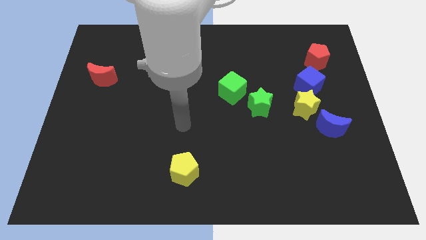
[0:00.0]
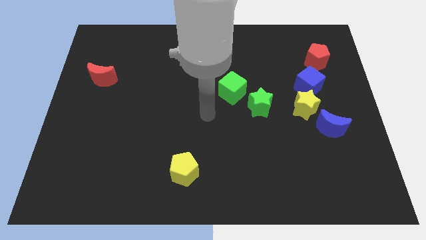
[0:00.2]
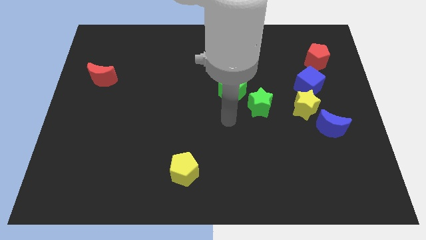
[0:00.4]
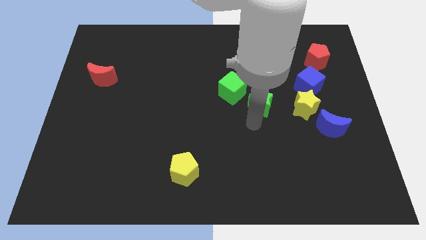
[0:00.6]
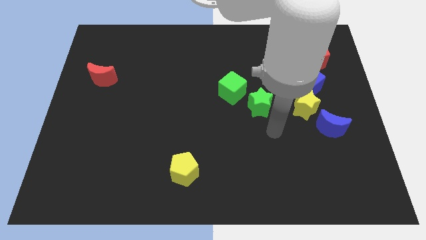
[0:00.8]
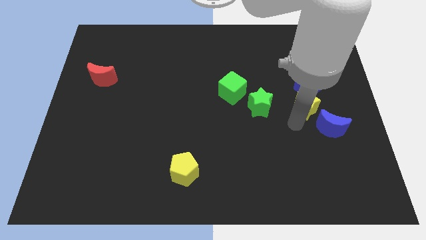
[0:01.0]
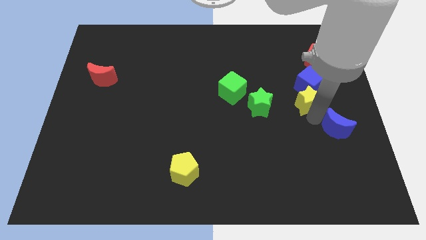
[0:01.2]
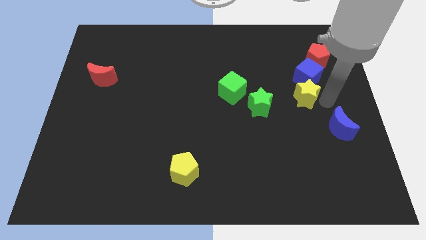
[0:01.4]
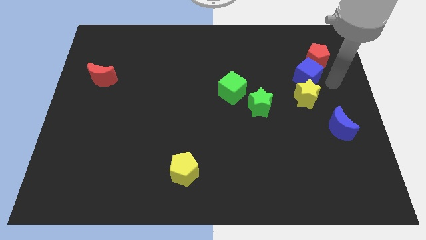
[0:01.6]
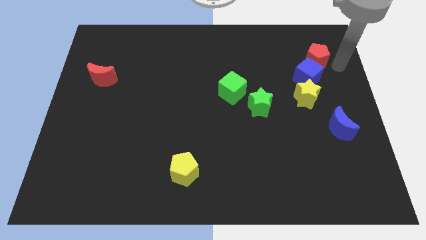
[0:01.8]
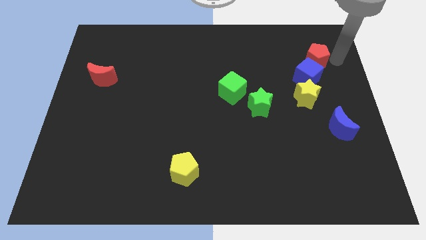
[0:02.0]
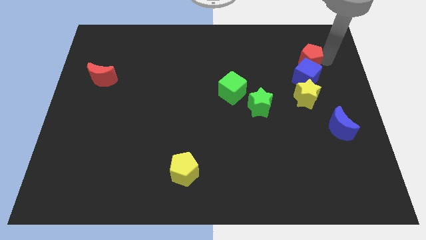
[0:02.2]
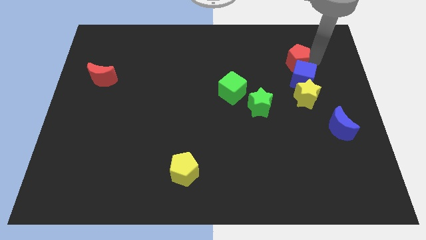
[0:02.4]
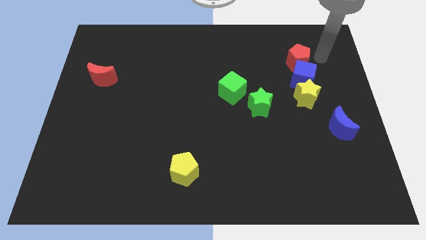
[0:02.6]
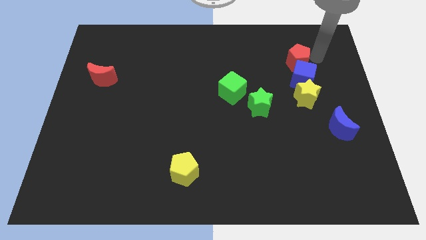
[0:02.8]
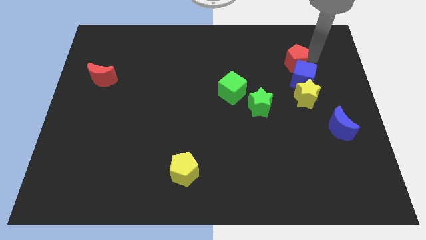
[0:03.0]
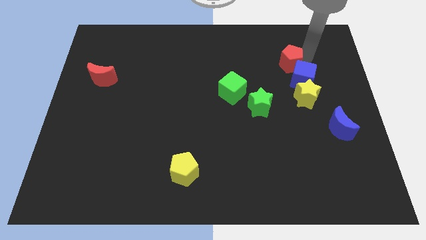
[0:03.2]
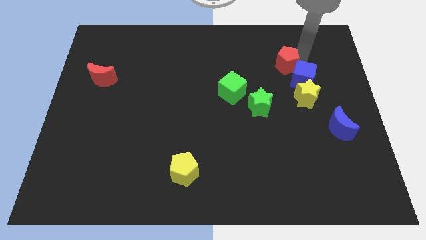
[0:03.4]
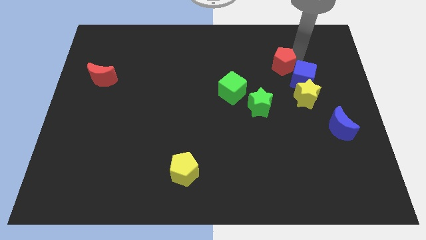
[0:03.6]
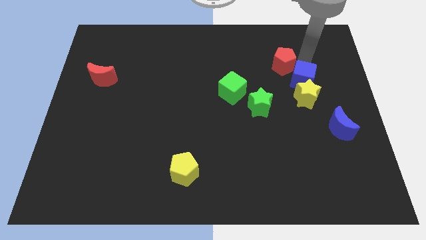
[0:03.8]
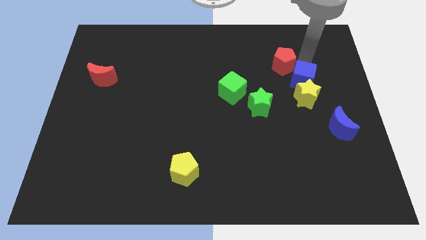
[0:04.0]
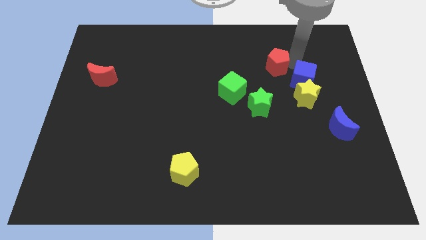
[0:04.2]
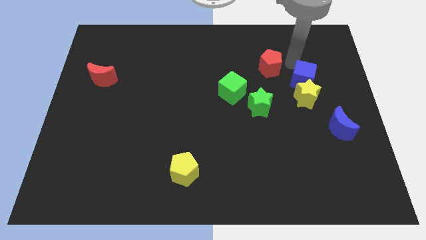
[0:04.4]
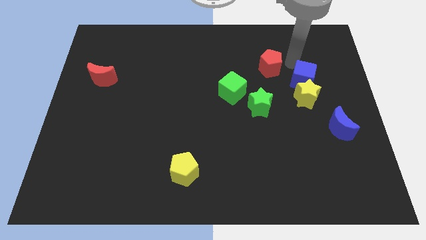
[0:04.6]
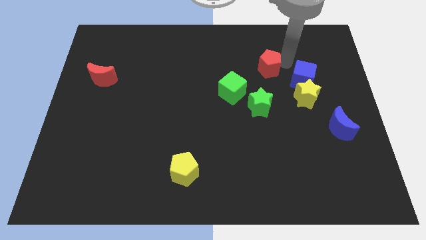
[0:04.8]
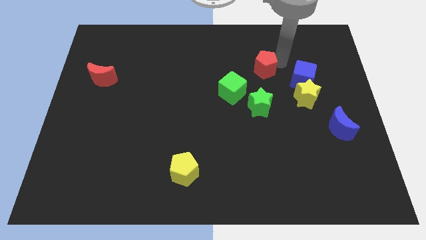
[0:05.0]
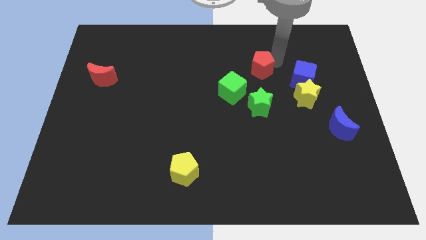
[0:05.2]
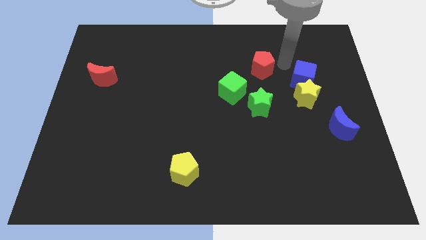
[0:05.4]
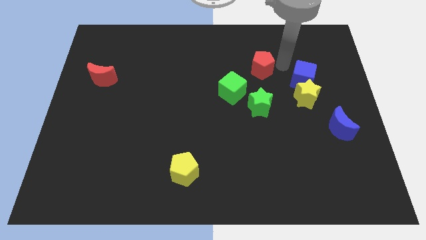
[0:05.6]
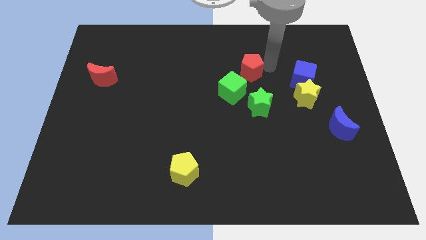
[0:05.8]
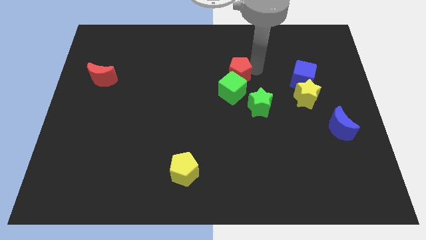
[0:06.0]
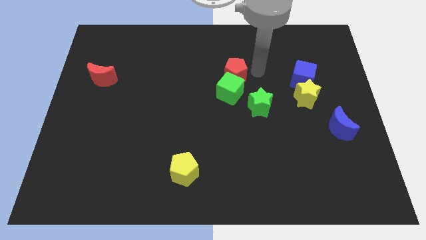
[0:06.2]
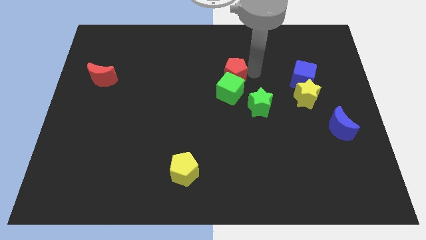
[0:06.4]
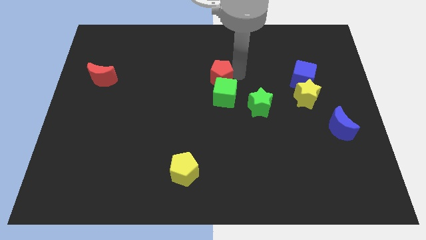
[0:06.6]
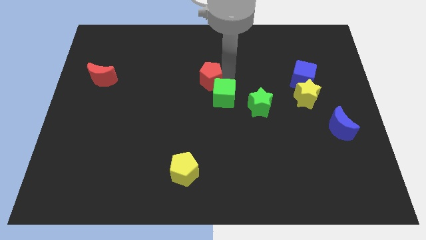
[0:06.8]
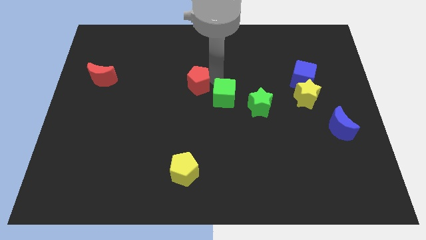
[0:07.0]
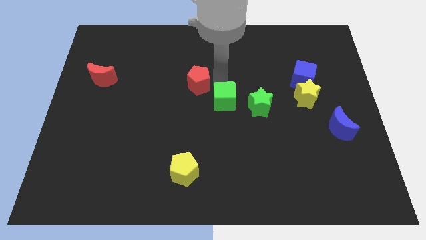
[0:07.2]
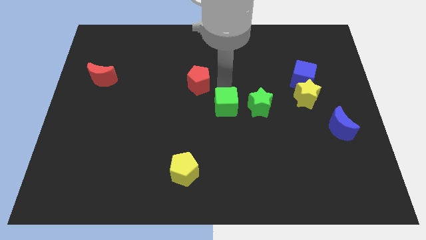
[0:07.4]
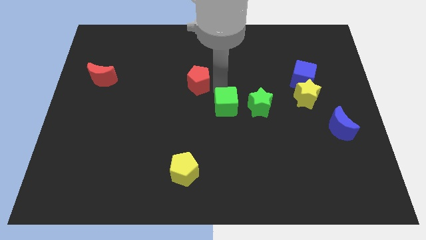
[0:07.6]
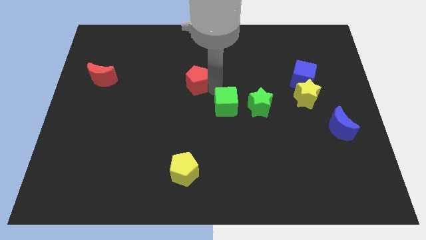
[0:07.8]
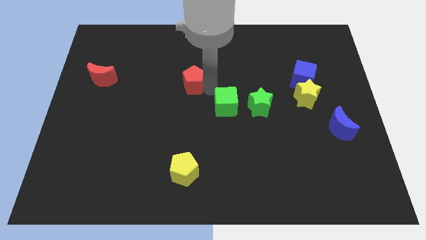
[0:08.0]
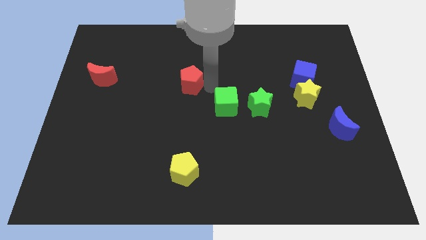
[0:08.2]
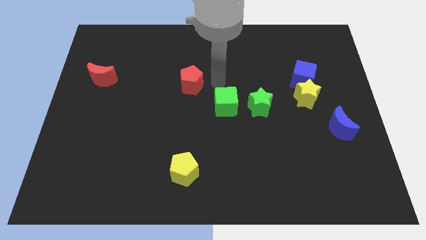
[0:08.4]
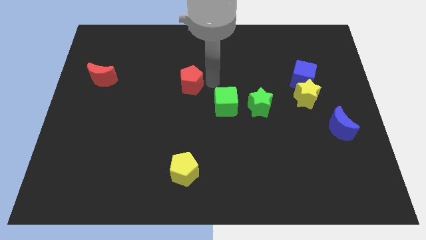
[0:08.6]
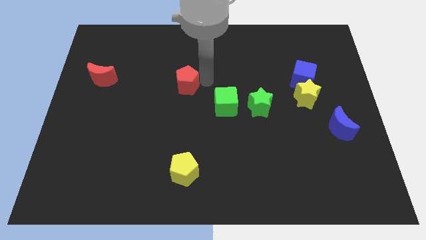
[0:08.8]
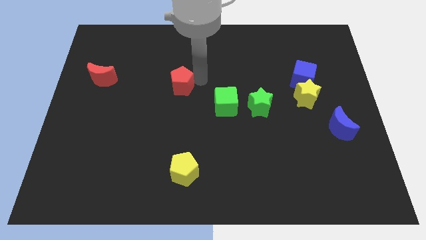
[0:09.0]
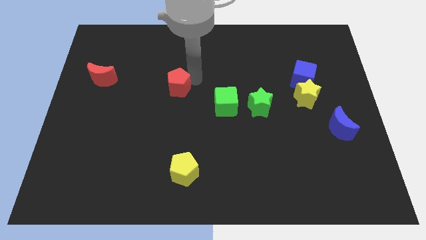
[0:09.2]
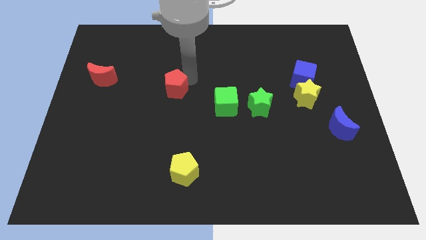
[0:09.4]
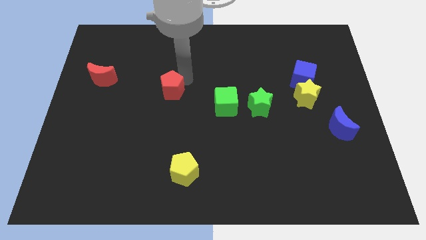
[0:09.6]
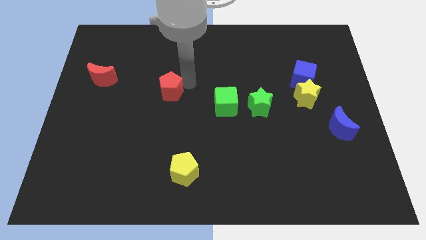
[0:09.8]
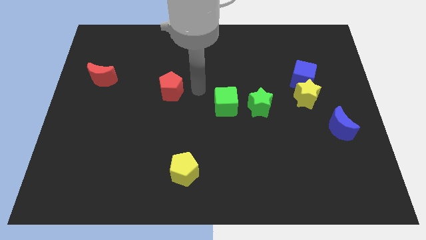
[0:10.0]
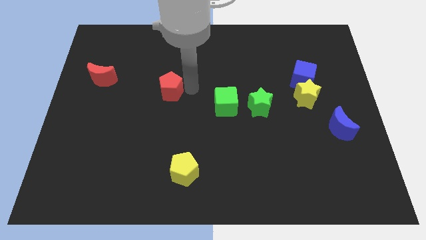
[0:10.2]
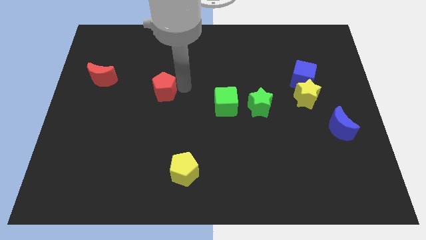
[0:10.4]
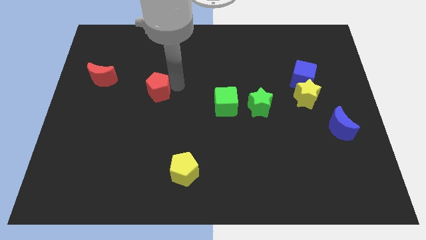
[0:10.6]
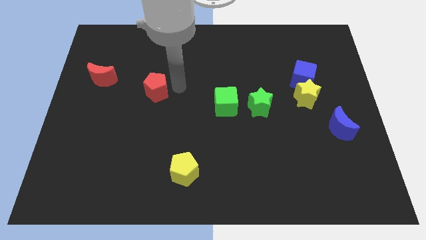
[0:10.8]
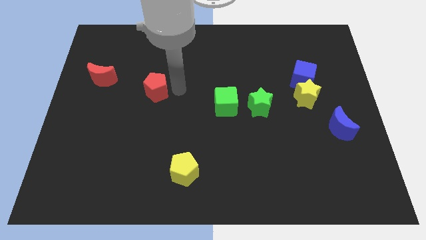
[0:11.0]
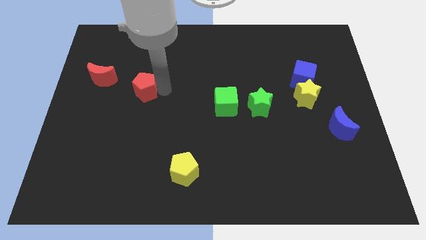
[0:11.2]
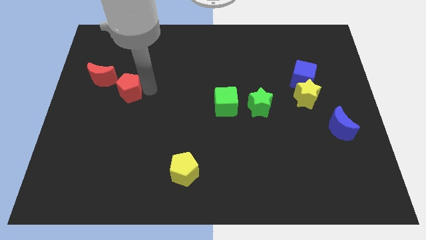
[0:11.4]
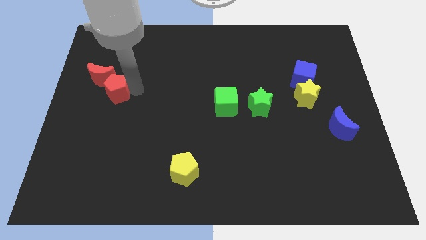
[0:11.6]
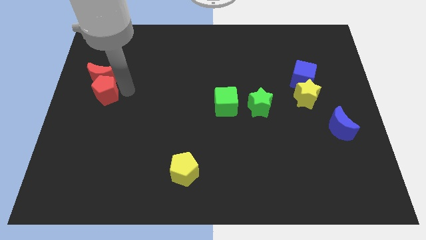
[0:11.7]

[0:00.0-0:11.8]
slide the red pentagon to the center left

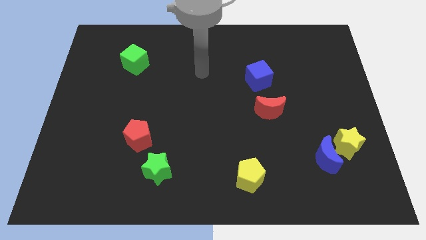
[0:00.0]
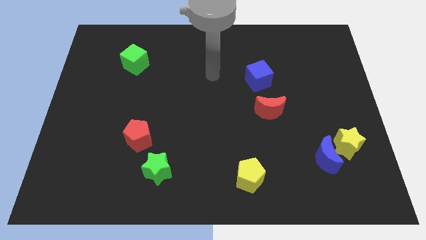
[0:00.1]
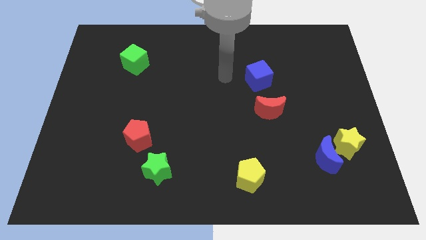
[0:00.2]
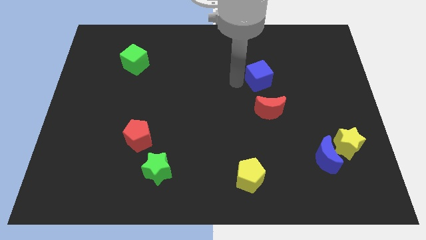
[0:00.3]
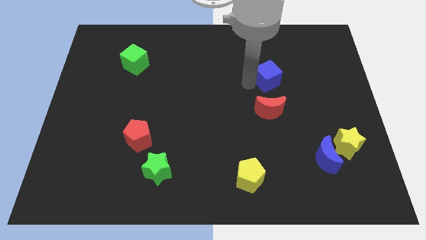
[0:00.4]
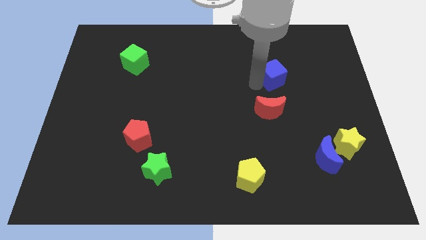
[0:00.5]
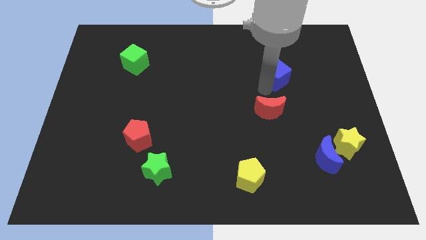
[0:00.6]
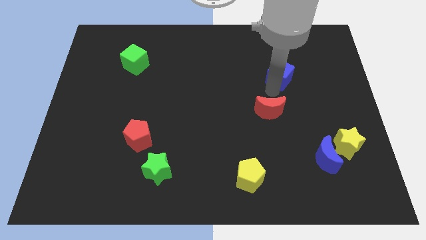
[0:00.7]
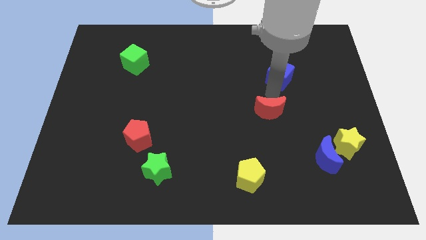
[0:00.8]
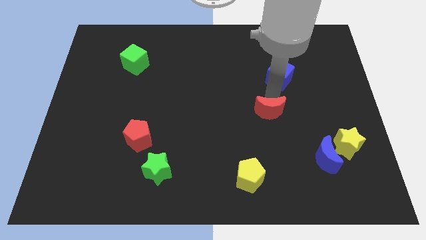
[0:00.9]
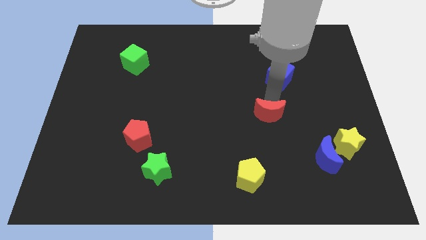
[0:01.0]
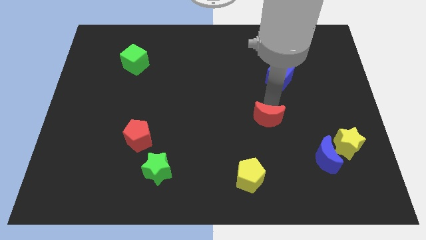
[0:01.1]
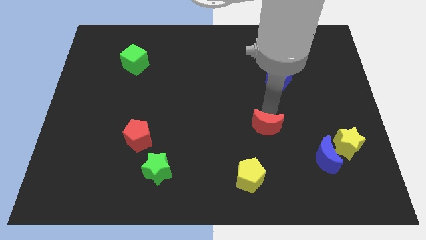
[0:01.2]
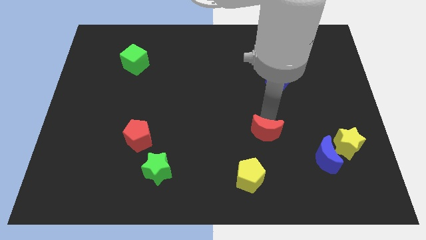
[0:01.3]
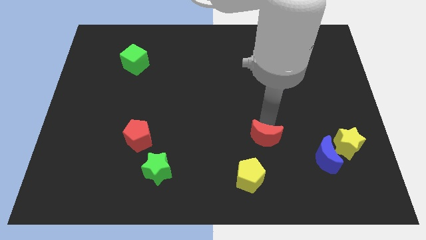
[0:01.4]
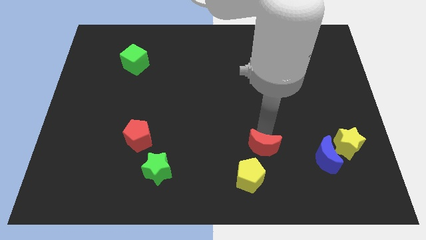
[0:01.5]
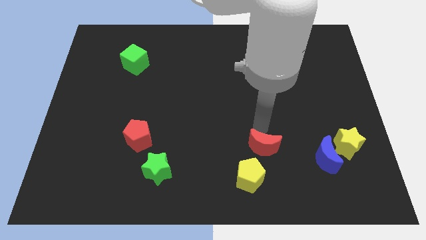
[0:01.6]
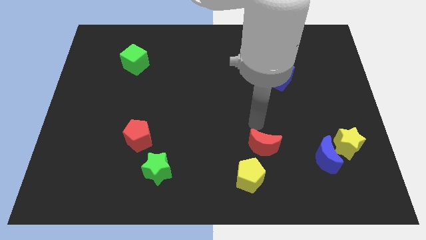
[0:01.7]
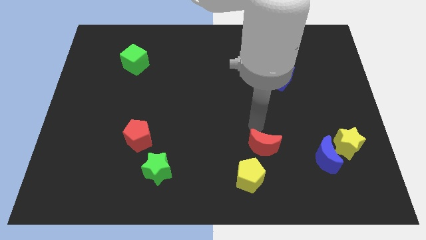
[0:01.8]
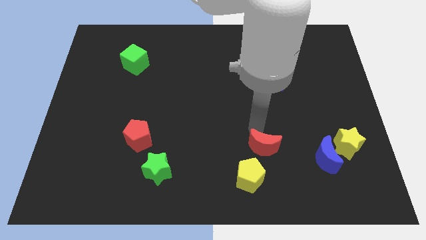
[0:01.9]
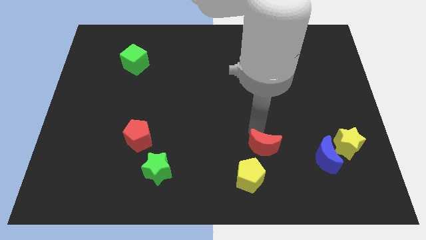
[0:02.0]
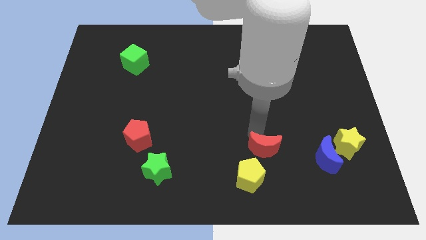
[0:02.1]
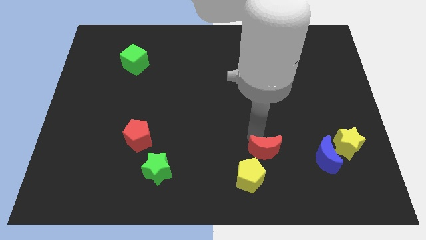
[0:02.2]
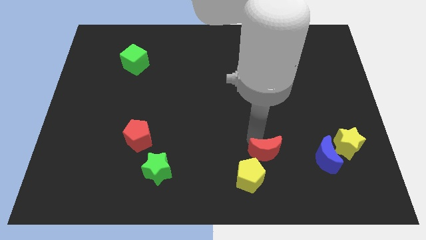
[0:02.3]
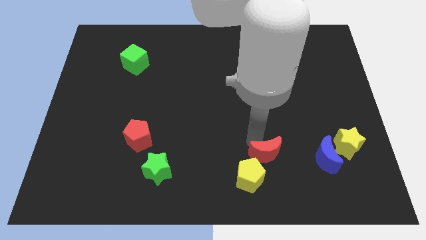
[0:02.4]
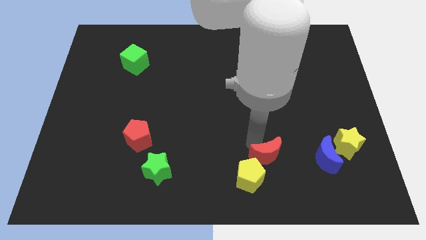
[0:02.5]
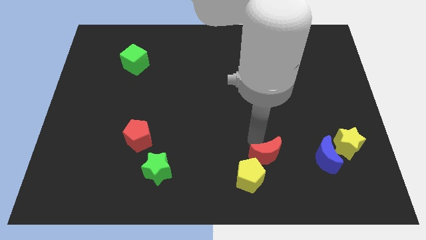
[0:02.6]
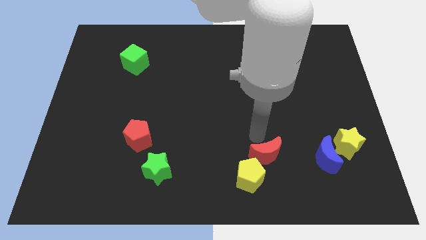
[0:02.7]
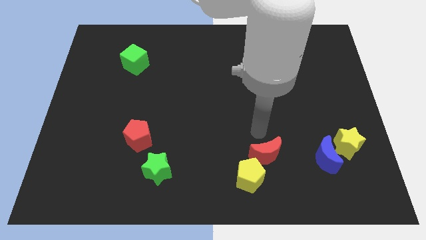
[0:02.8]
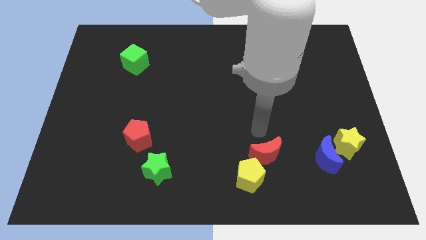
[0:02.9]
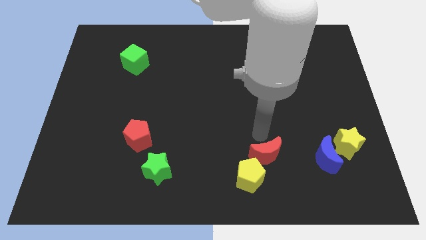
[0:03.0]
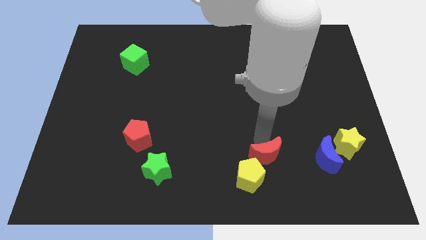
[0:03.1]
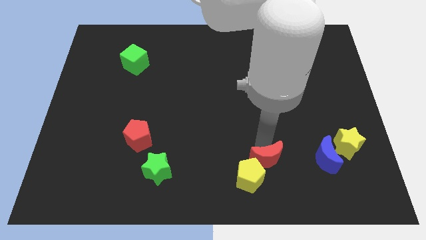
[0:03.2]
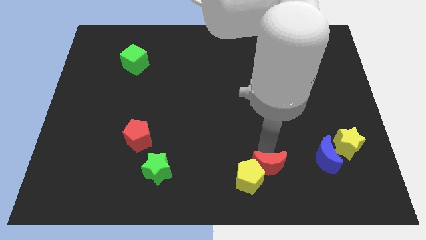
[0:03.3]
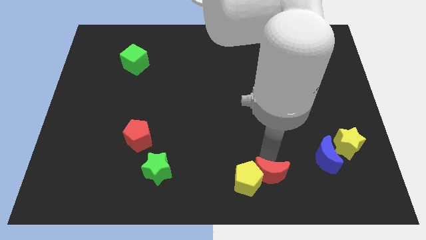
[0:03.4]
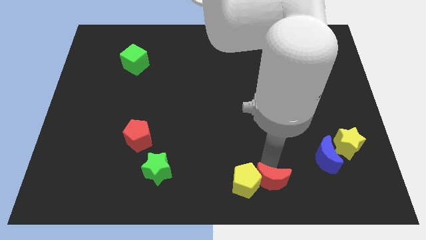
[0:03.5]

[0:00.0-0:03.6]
put the red moon to the bottom
